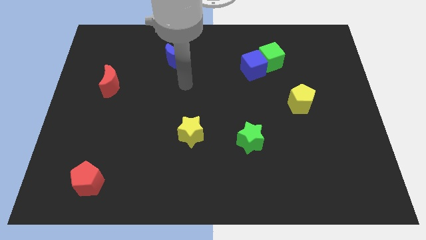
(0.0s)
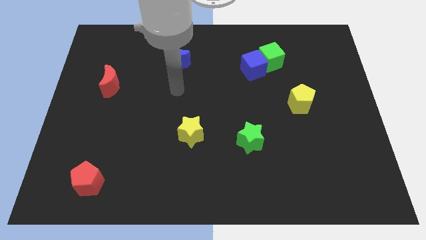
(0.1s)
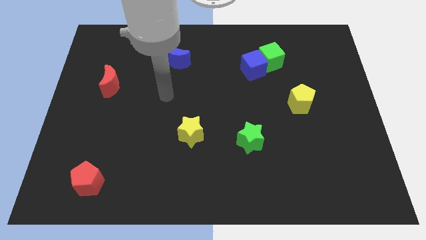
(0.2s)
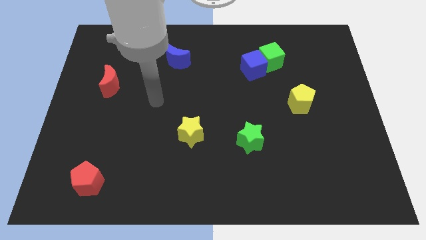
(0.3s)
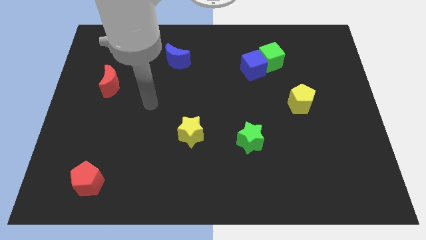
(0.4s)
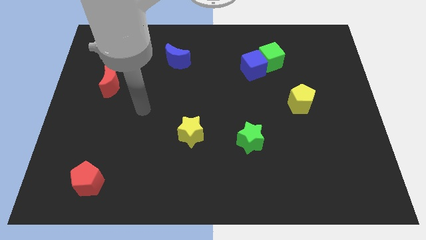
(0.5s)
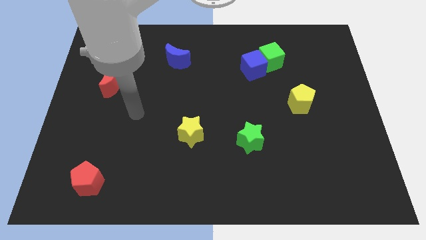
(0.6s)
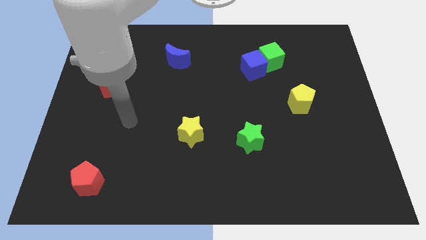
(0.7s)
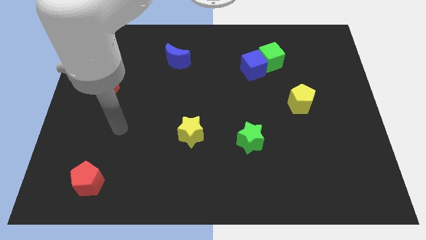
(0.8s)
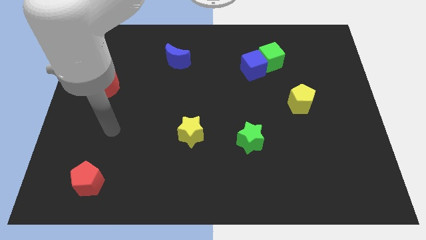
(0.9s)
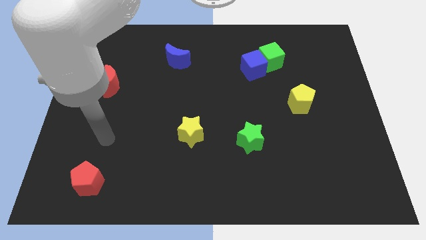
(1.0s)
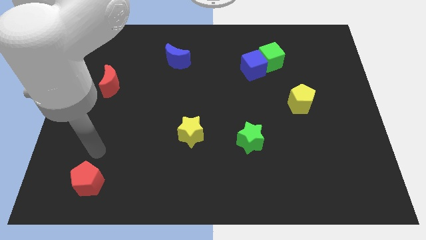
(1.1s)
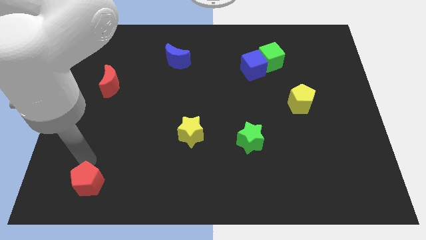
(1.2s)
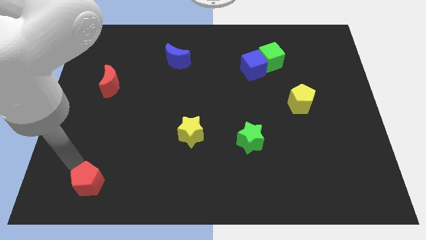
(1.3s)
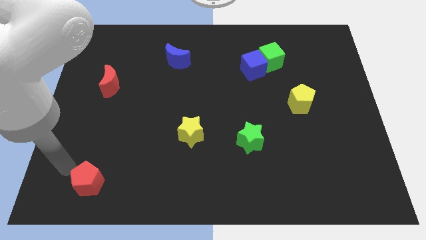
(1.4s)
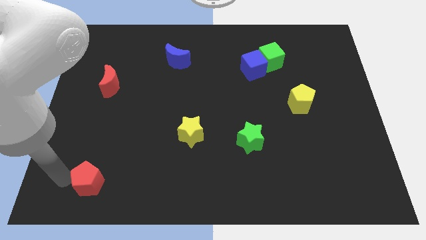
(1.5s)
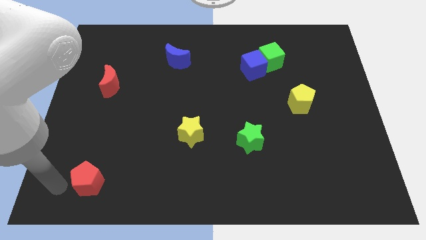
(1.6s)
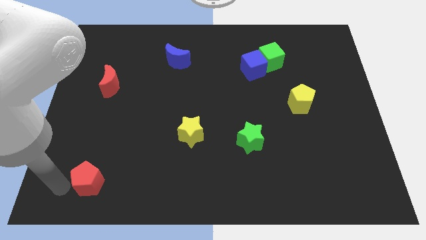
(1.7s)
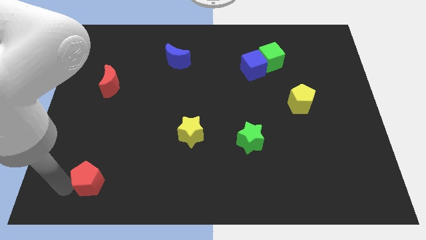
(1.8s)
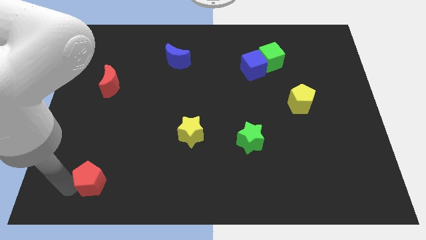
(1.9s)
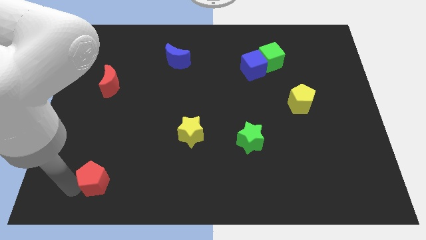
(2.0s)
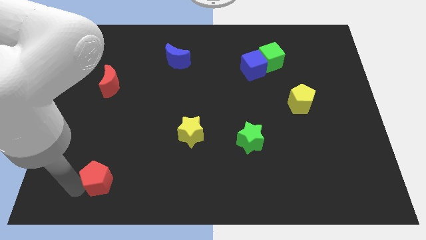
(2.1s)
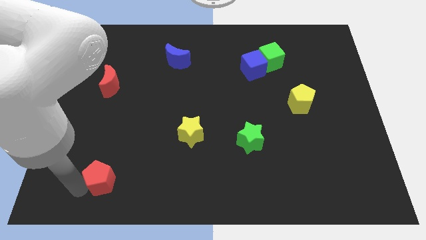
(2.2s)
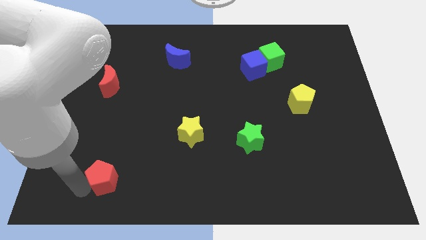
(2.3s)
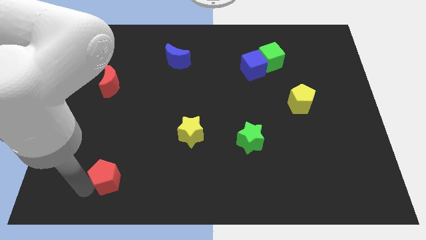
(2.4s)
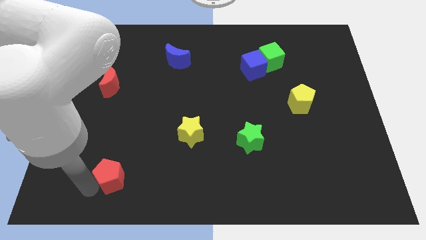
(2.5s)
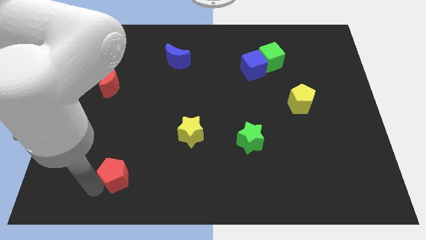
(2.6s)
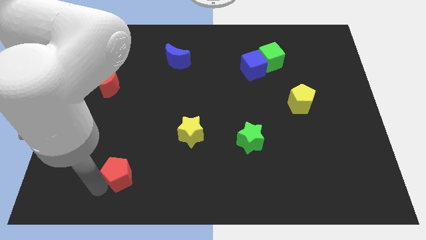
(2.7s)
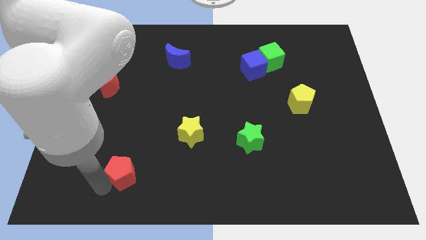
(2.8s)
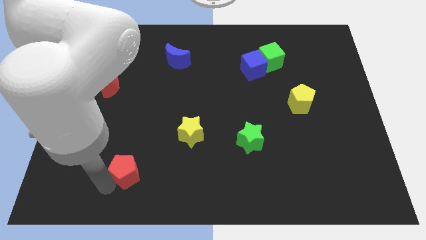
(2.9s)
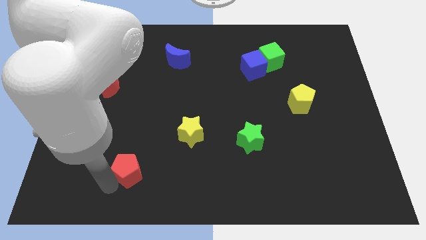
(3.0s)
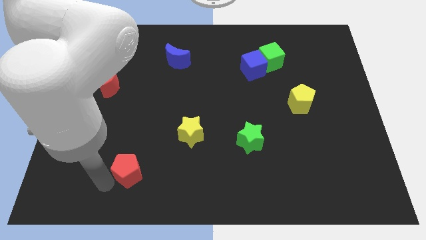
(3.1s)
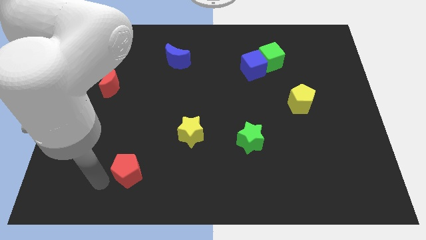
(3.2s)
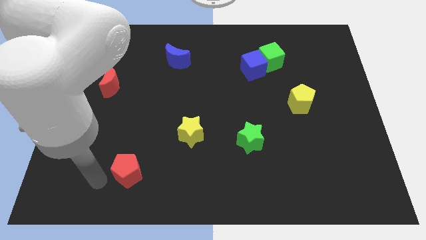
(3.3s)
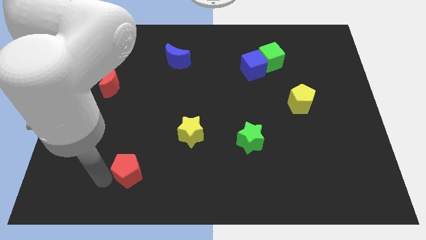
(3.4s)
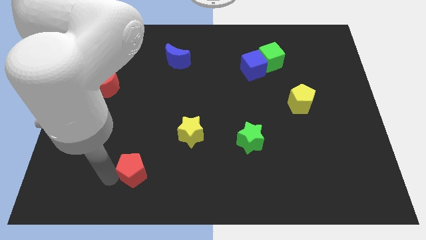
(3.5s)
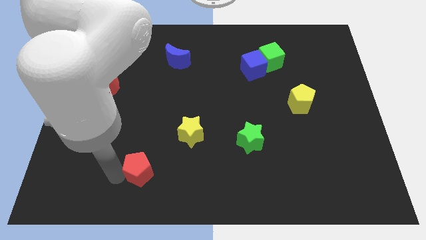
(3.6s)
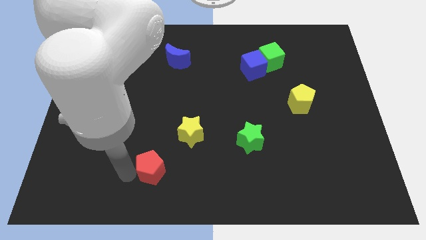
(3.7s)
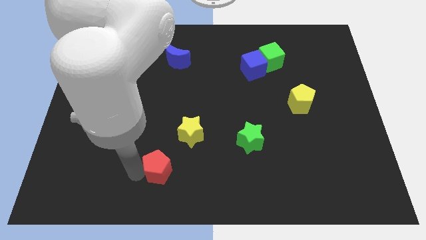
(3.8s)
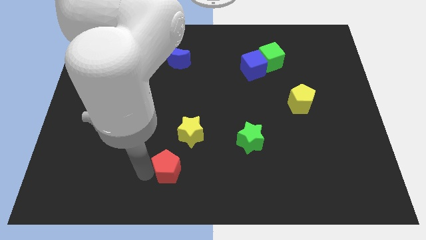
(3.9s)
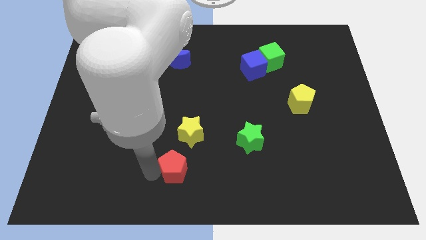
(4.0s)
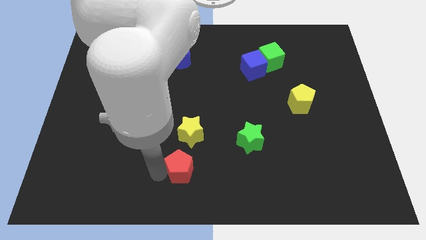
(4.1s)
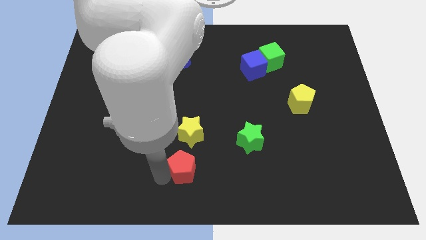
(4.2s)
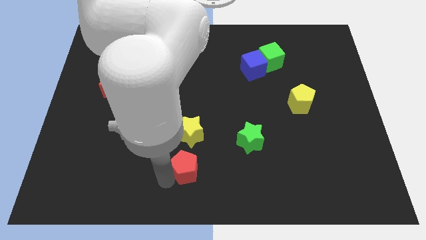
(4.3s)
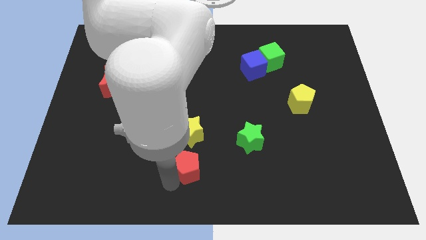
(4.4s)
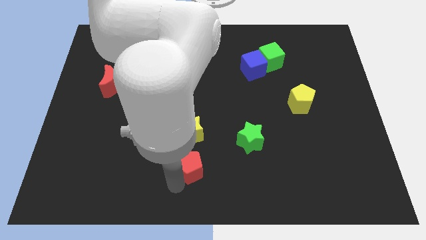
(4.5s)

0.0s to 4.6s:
slide the red pentagon to the right

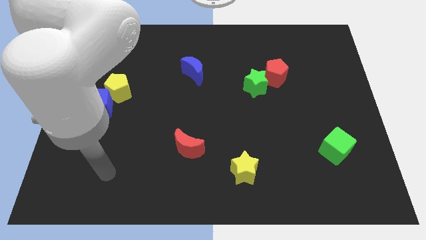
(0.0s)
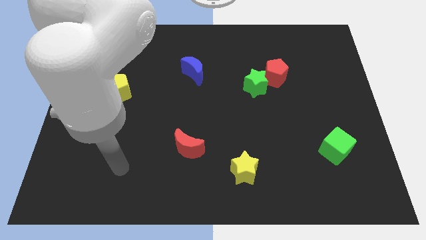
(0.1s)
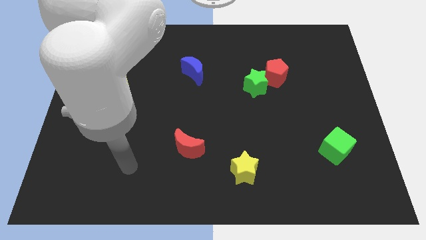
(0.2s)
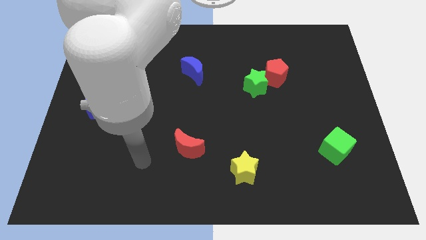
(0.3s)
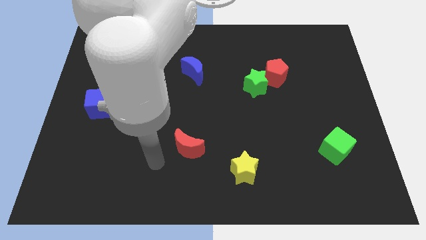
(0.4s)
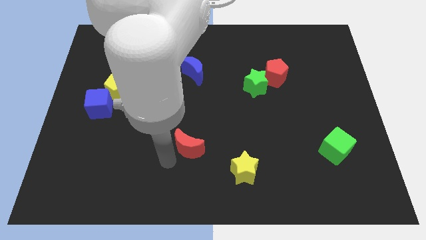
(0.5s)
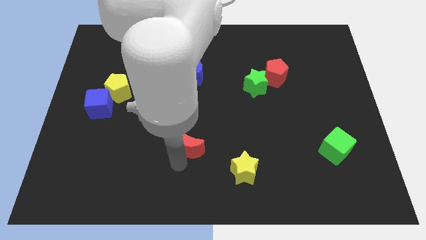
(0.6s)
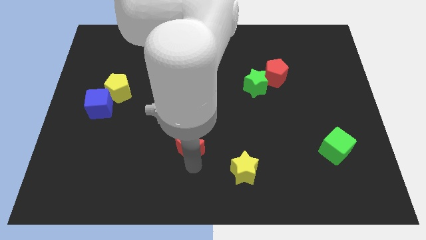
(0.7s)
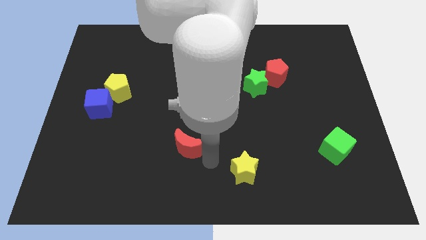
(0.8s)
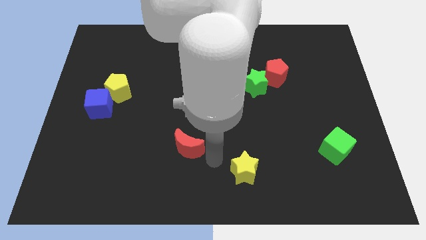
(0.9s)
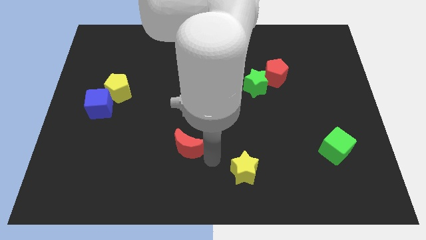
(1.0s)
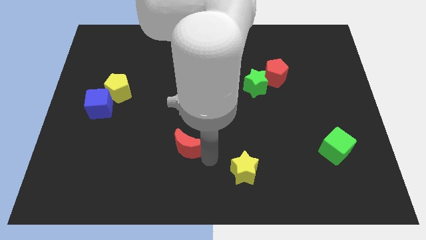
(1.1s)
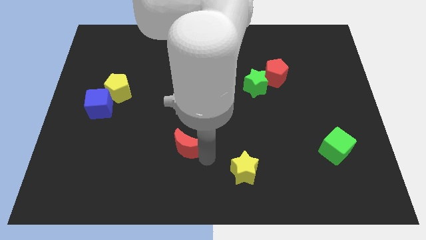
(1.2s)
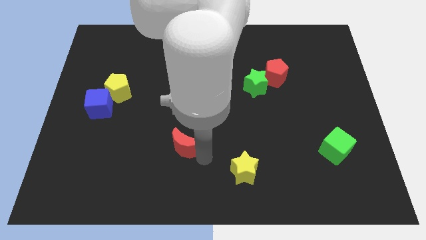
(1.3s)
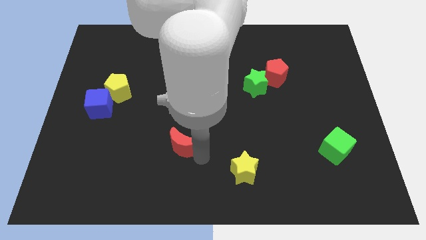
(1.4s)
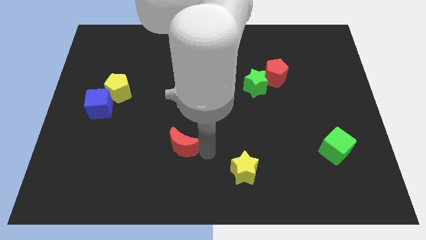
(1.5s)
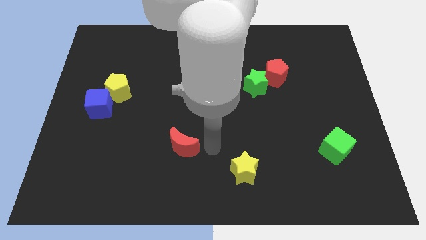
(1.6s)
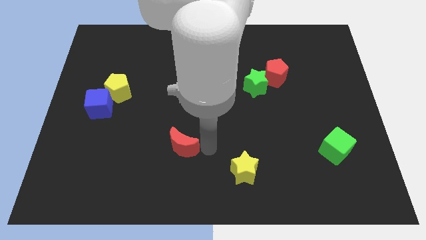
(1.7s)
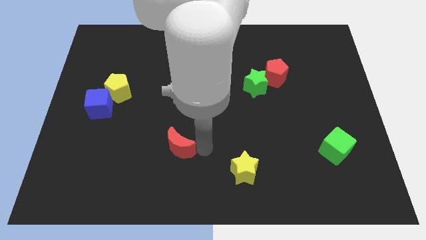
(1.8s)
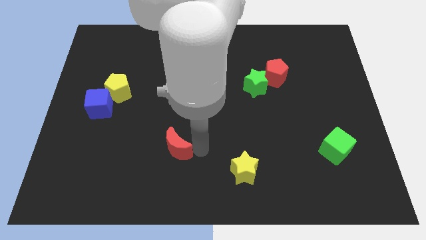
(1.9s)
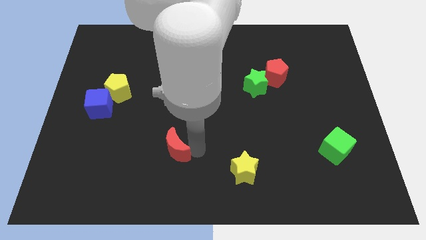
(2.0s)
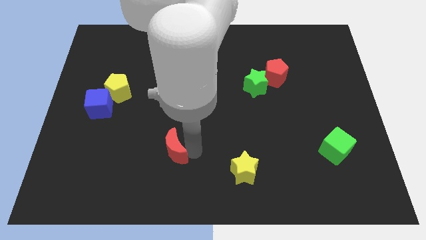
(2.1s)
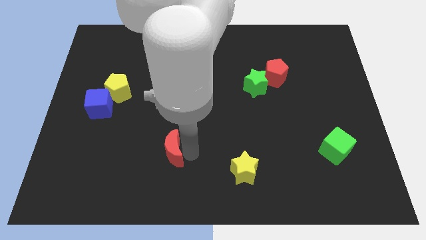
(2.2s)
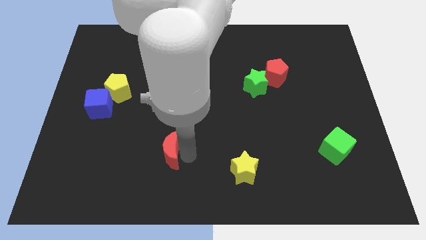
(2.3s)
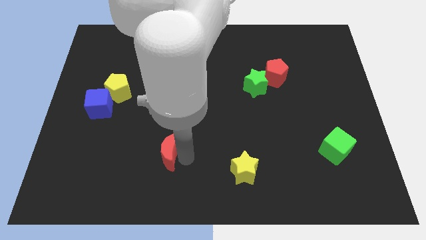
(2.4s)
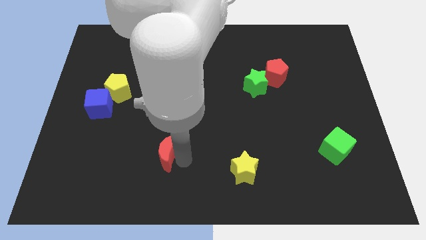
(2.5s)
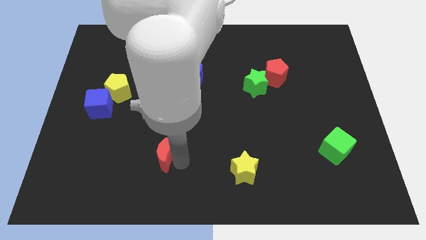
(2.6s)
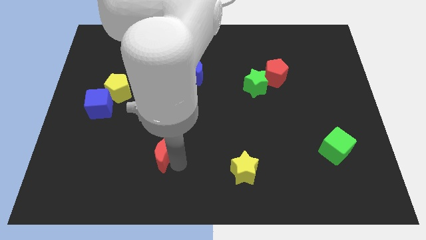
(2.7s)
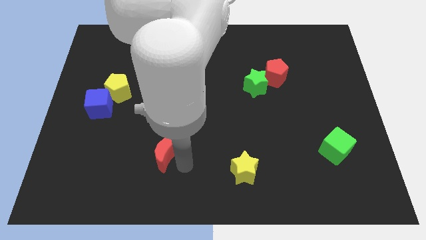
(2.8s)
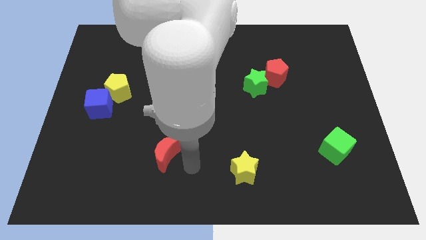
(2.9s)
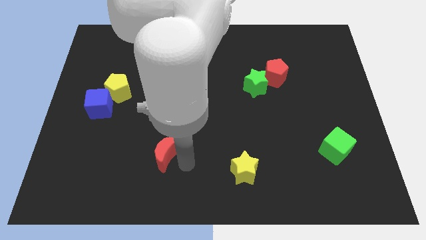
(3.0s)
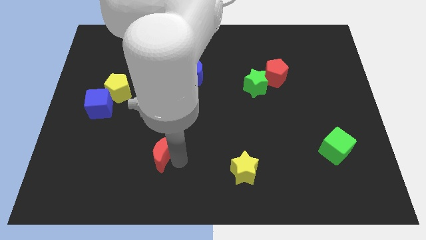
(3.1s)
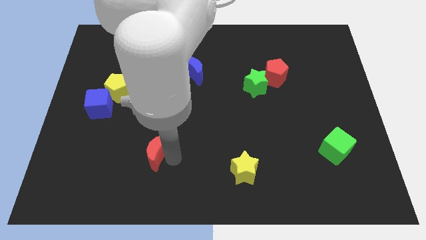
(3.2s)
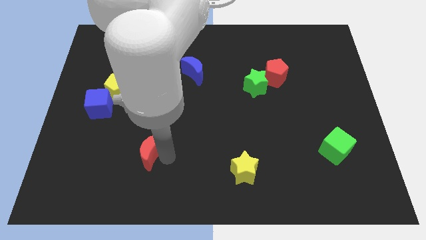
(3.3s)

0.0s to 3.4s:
slightly push the red moon to the left

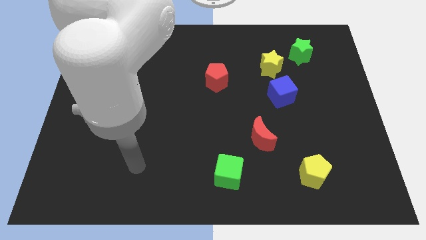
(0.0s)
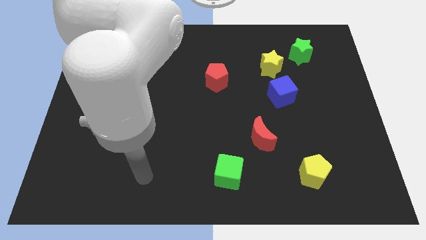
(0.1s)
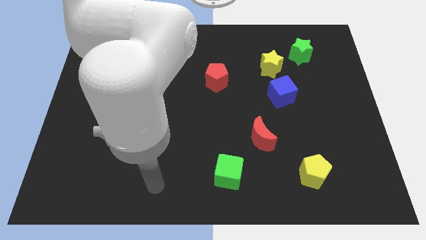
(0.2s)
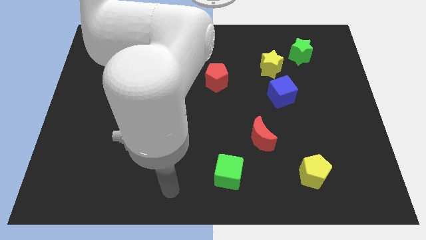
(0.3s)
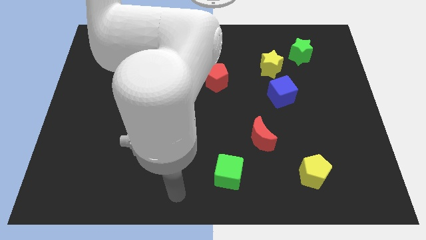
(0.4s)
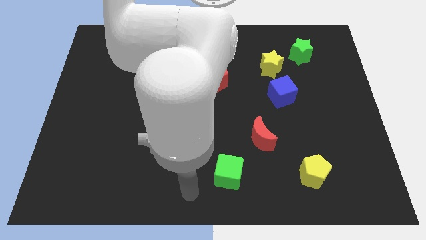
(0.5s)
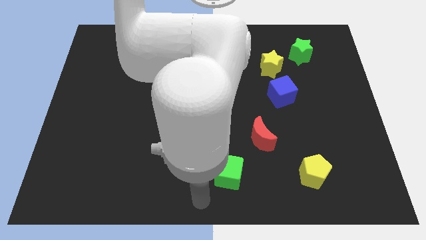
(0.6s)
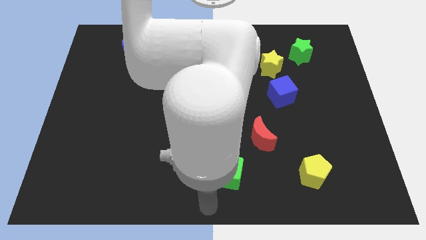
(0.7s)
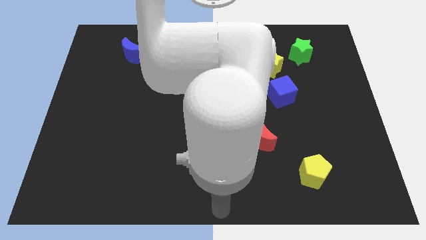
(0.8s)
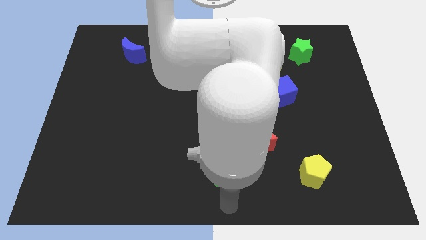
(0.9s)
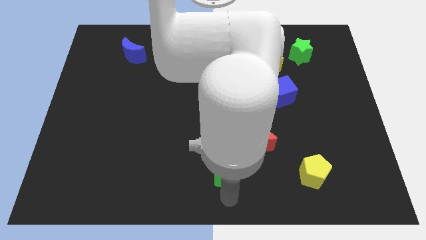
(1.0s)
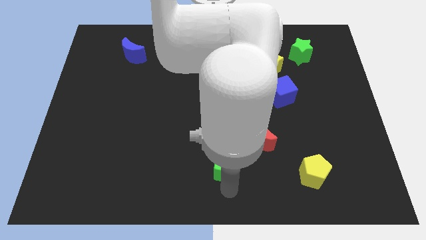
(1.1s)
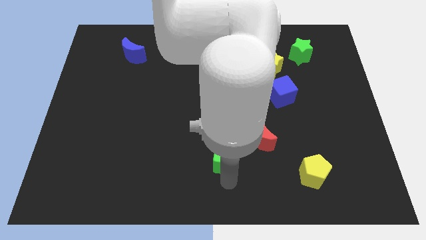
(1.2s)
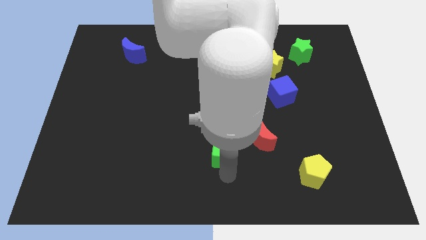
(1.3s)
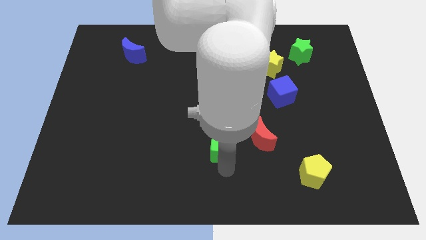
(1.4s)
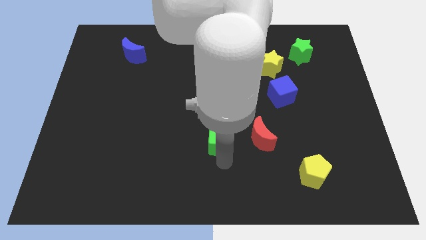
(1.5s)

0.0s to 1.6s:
push the green cube upwards a little bit
